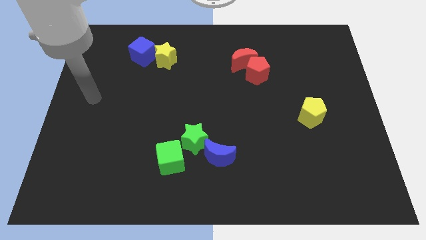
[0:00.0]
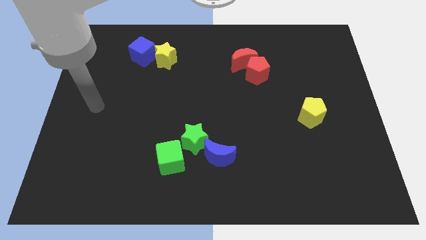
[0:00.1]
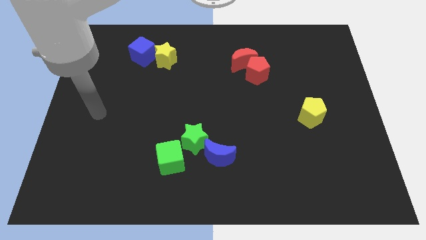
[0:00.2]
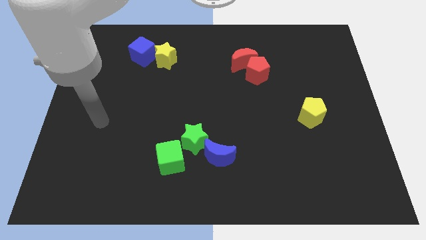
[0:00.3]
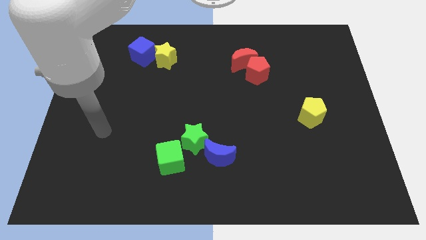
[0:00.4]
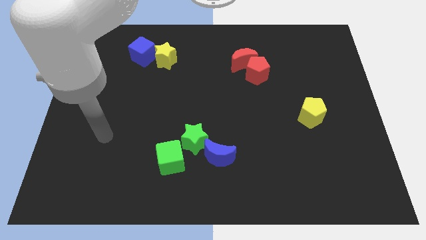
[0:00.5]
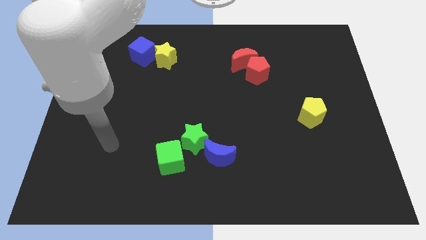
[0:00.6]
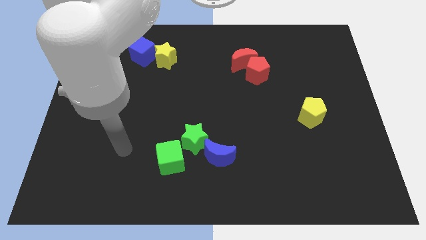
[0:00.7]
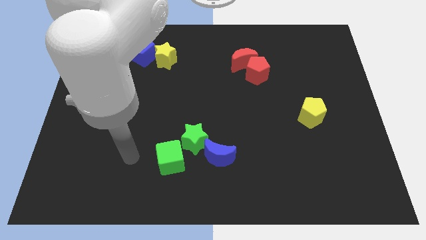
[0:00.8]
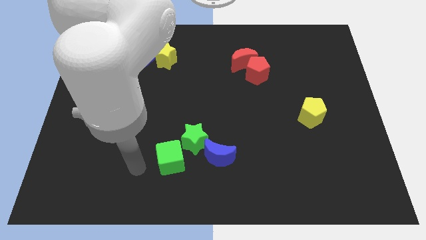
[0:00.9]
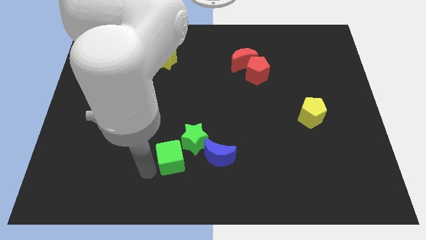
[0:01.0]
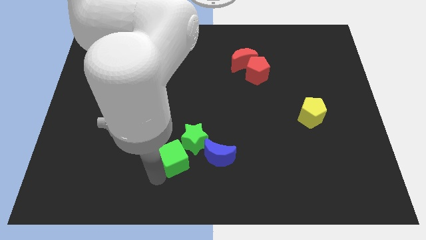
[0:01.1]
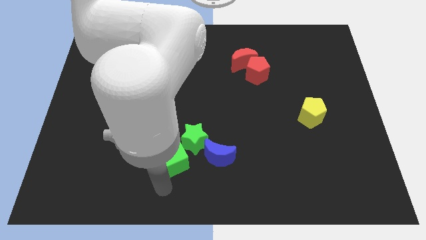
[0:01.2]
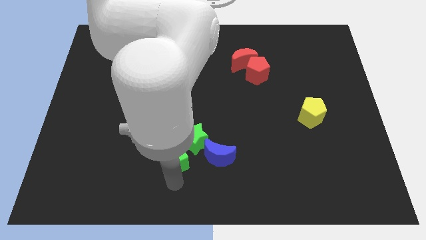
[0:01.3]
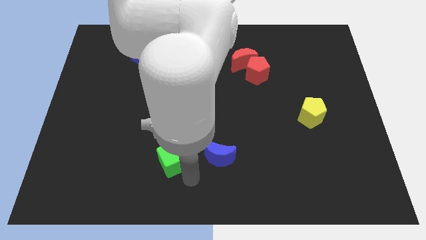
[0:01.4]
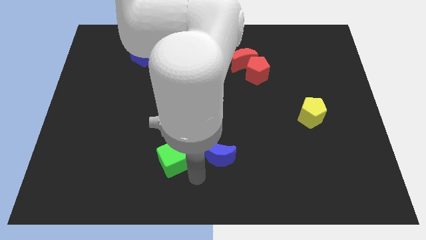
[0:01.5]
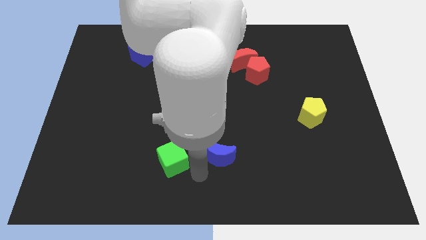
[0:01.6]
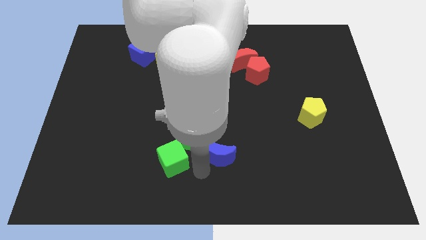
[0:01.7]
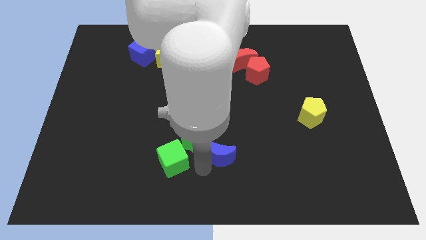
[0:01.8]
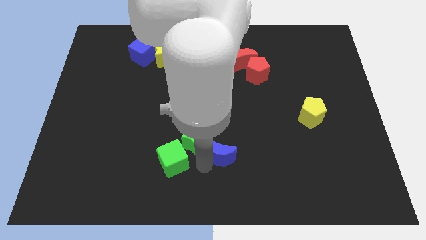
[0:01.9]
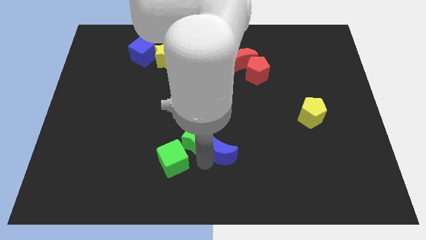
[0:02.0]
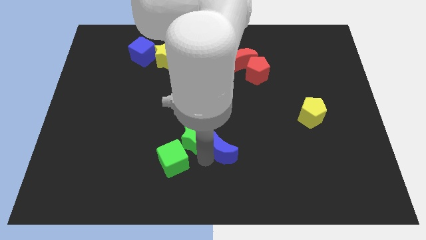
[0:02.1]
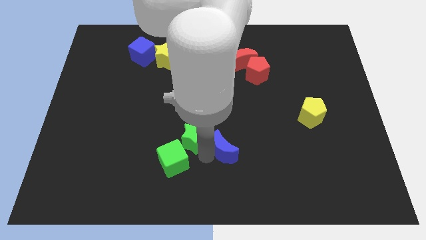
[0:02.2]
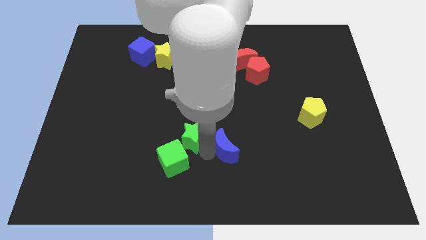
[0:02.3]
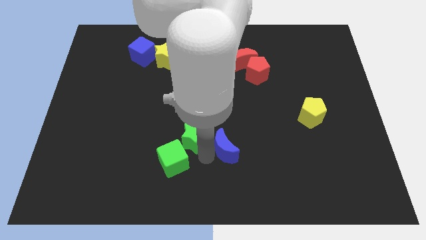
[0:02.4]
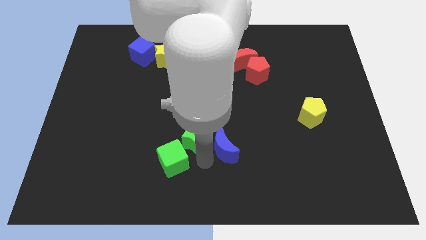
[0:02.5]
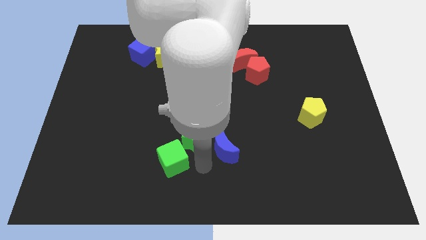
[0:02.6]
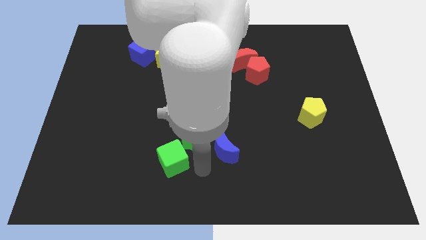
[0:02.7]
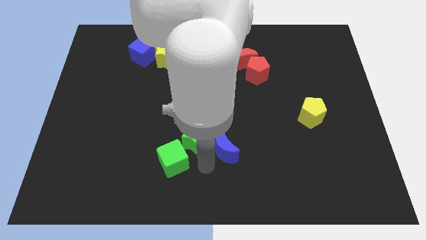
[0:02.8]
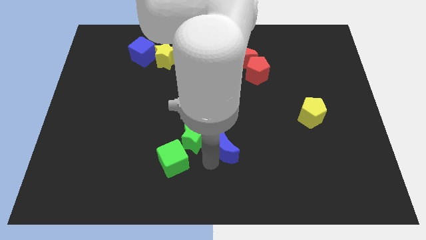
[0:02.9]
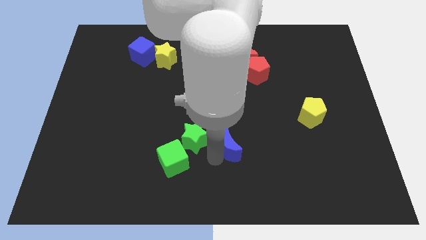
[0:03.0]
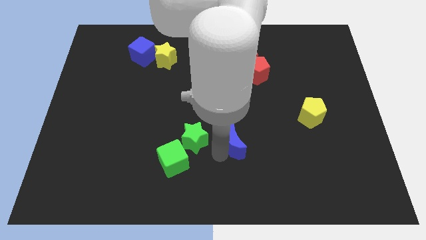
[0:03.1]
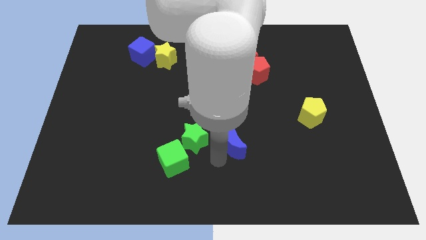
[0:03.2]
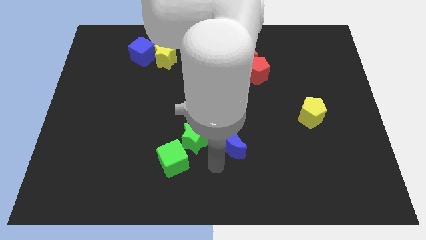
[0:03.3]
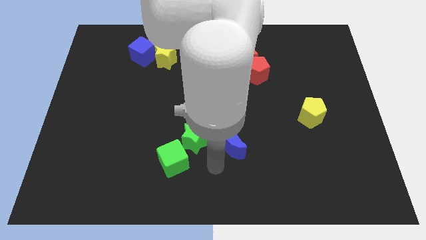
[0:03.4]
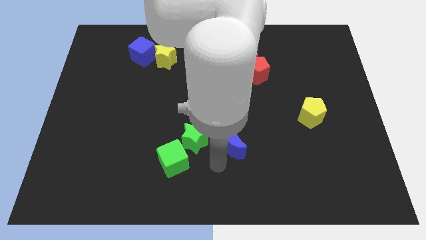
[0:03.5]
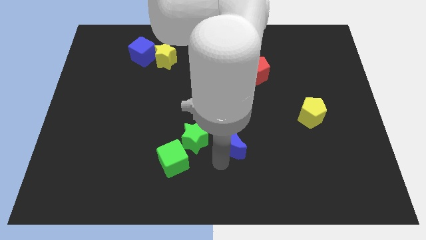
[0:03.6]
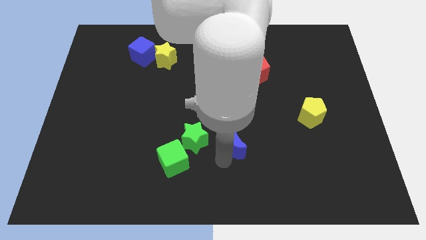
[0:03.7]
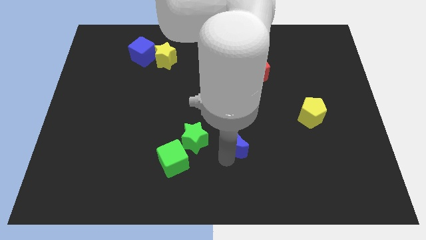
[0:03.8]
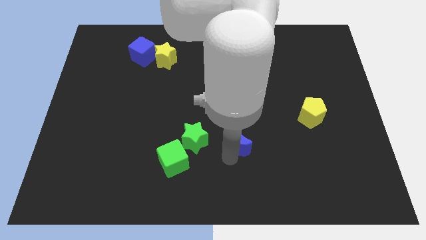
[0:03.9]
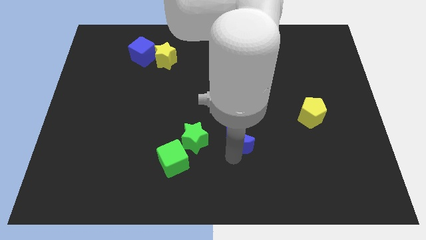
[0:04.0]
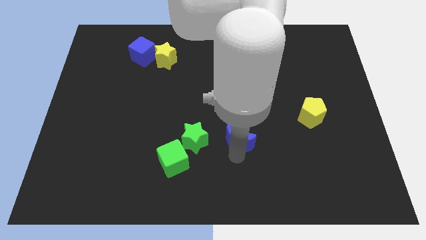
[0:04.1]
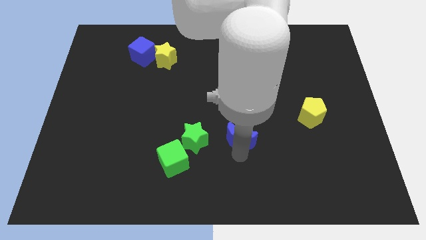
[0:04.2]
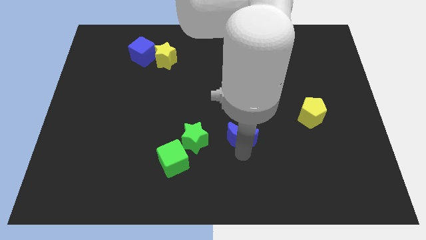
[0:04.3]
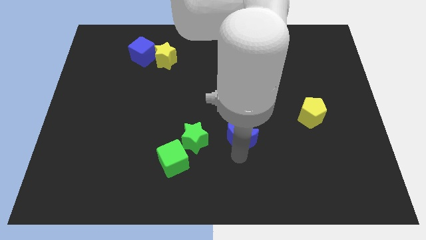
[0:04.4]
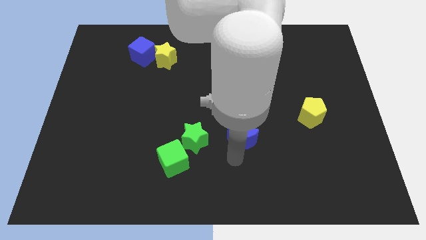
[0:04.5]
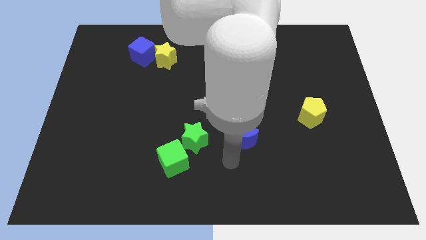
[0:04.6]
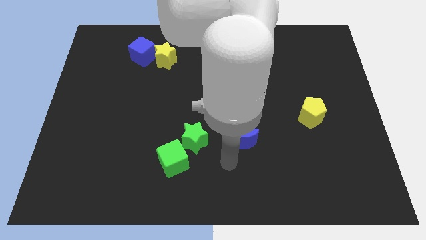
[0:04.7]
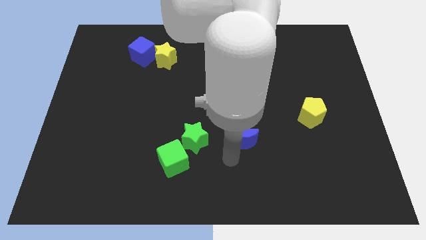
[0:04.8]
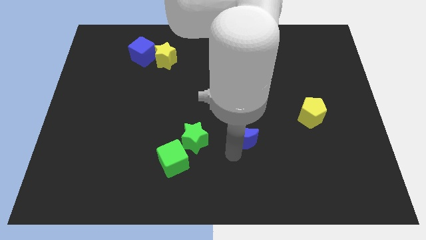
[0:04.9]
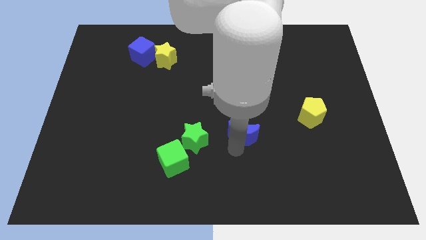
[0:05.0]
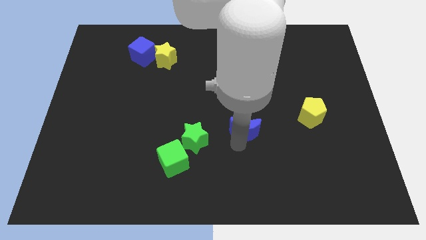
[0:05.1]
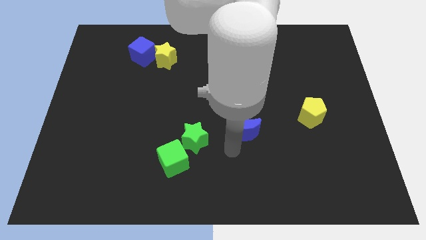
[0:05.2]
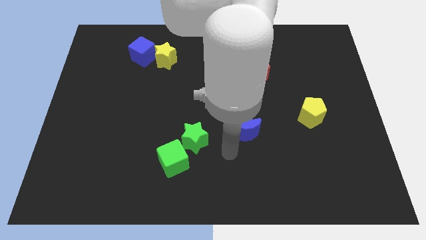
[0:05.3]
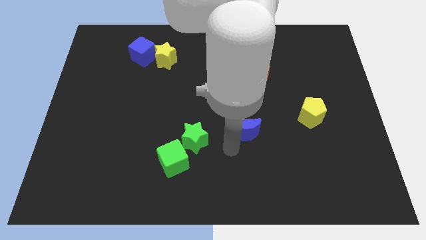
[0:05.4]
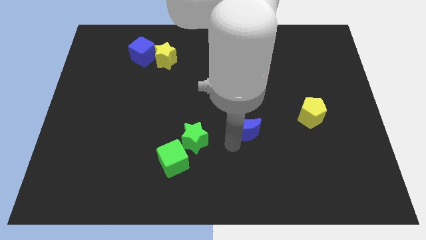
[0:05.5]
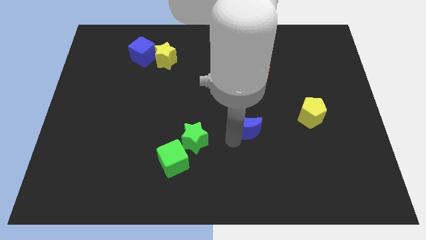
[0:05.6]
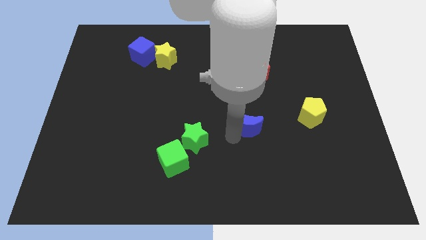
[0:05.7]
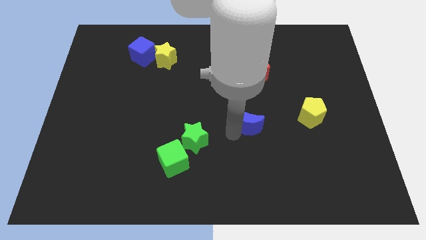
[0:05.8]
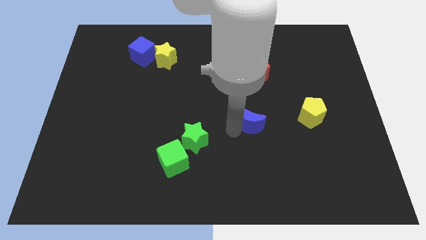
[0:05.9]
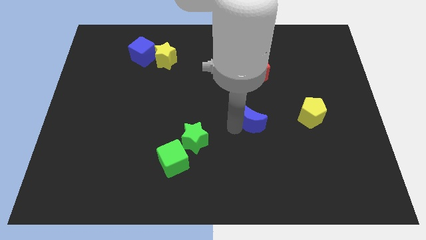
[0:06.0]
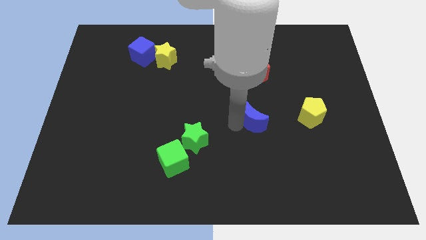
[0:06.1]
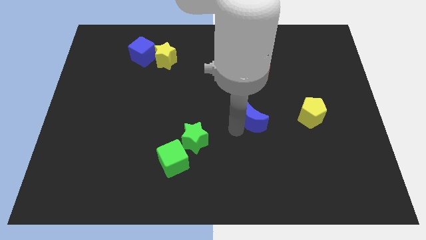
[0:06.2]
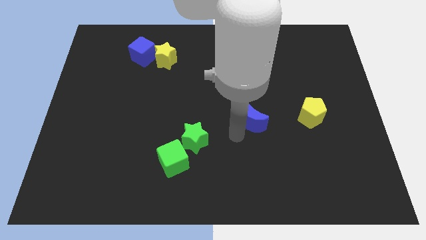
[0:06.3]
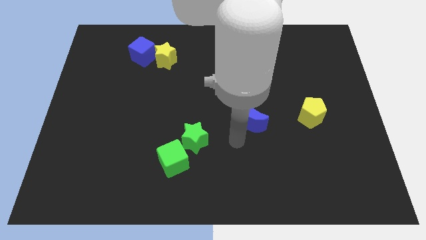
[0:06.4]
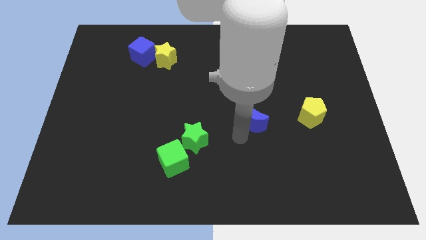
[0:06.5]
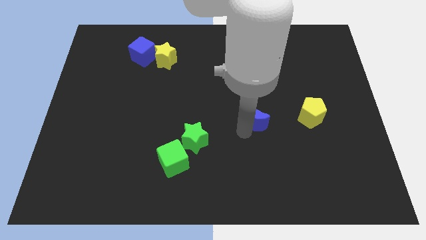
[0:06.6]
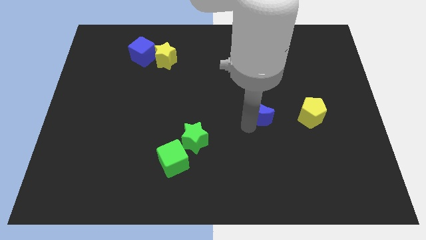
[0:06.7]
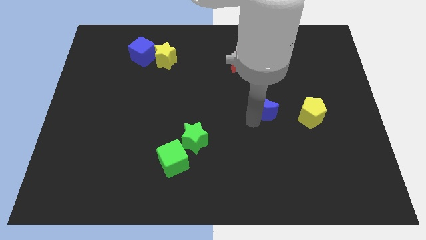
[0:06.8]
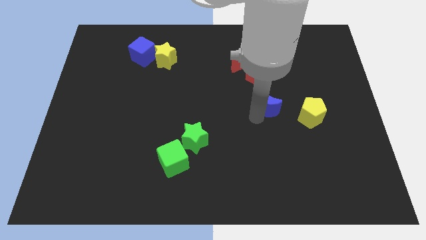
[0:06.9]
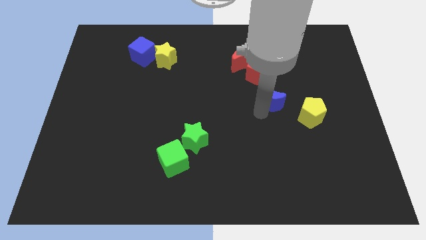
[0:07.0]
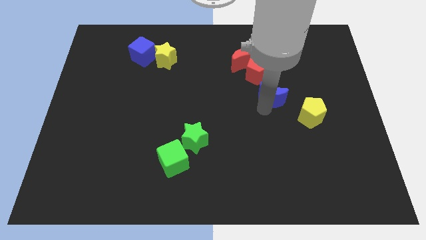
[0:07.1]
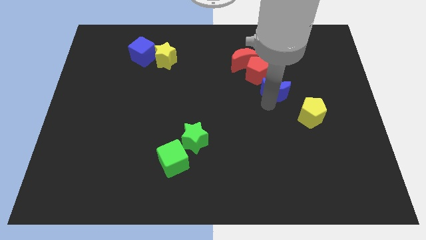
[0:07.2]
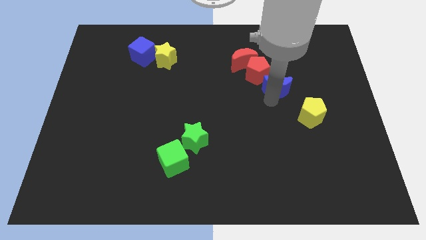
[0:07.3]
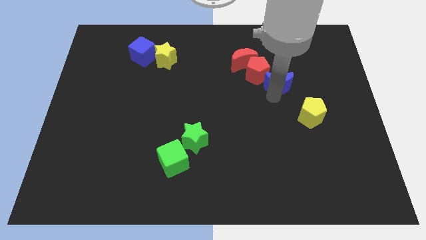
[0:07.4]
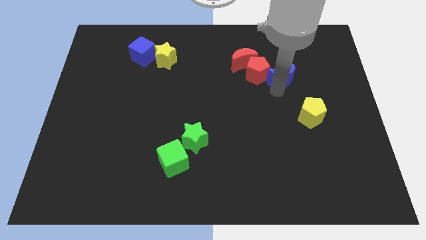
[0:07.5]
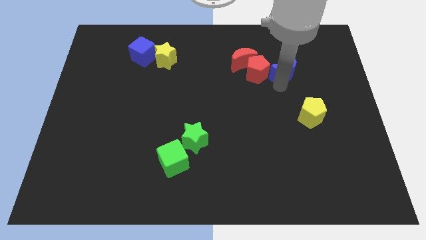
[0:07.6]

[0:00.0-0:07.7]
put the blue moon right of the red moon
